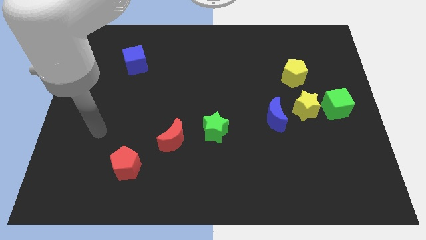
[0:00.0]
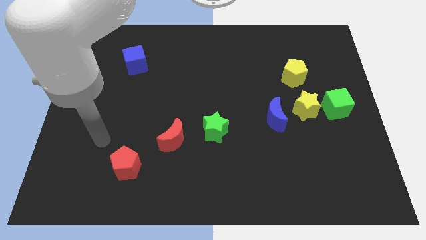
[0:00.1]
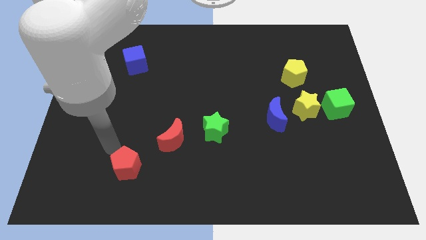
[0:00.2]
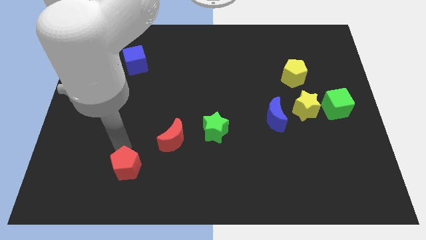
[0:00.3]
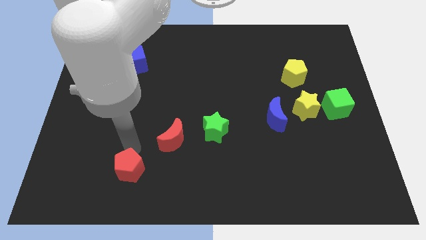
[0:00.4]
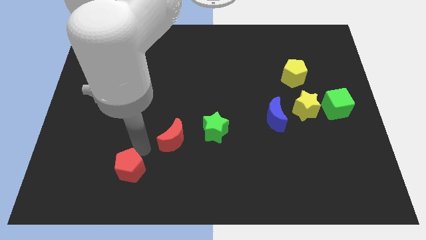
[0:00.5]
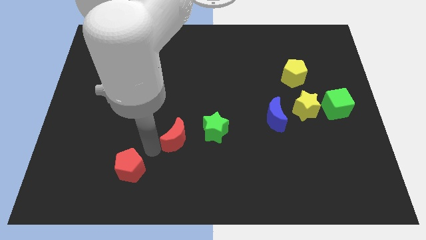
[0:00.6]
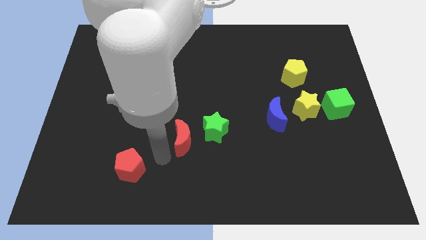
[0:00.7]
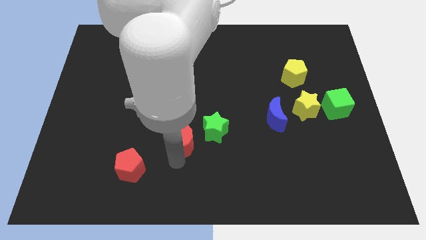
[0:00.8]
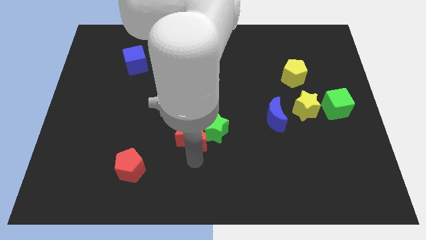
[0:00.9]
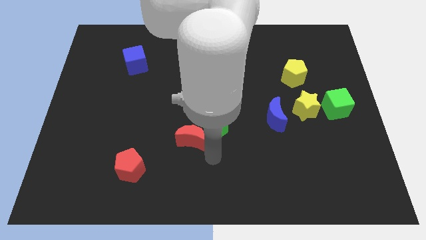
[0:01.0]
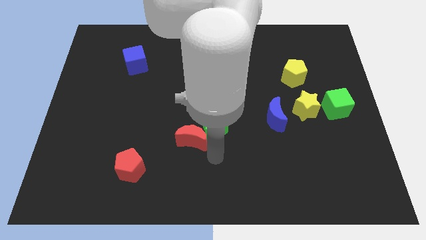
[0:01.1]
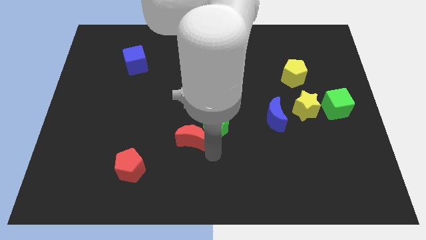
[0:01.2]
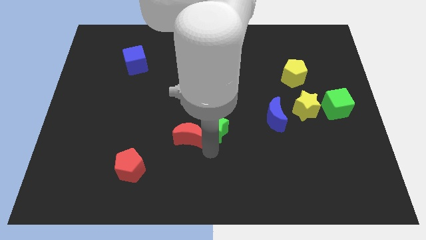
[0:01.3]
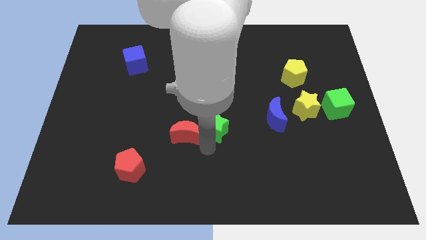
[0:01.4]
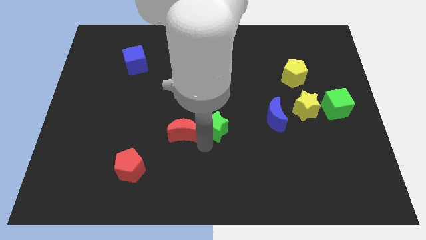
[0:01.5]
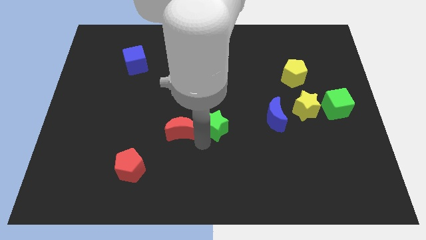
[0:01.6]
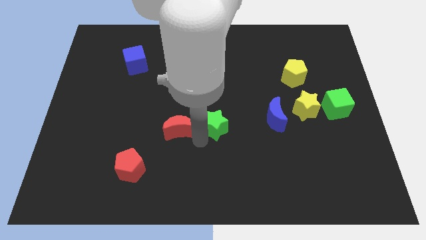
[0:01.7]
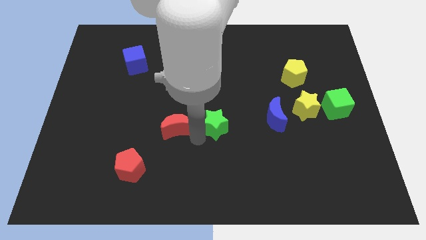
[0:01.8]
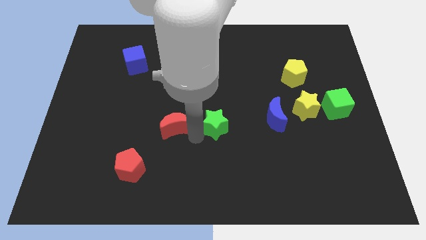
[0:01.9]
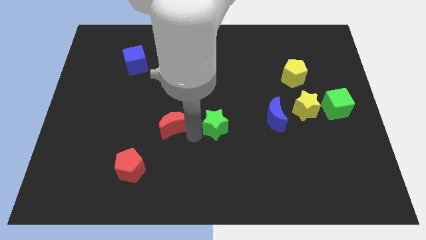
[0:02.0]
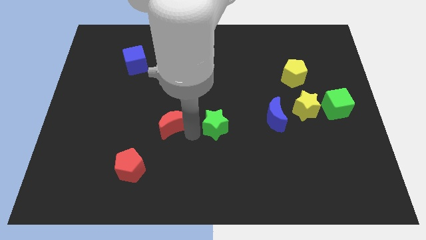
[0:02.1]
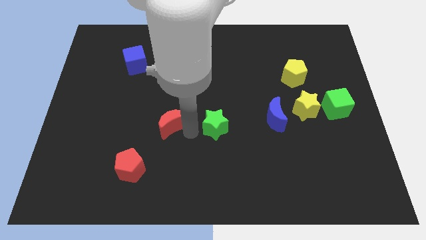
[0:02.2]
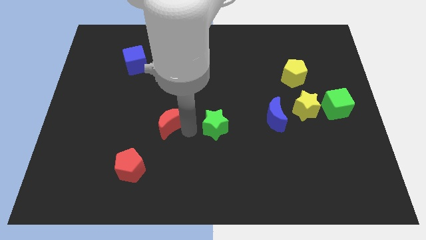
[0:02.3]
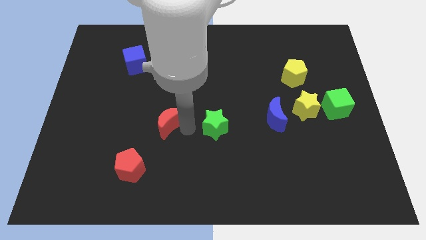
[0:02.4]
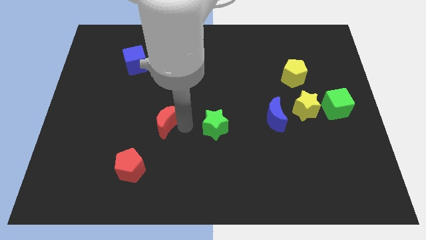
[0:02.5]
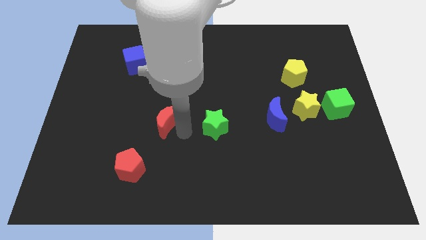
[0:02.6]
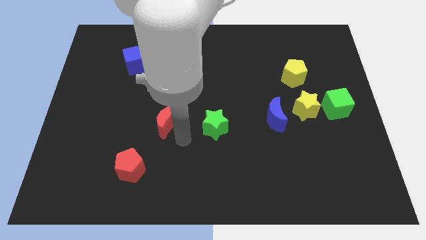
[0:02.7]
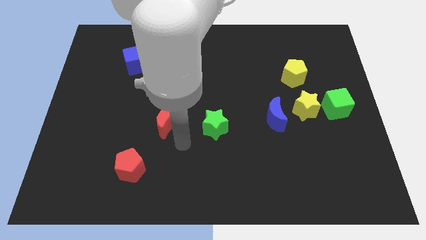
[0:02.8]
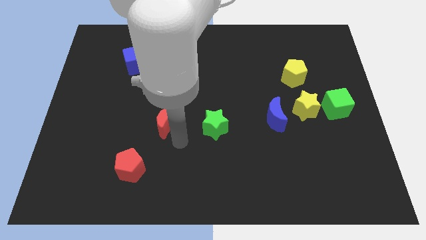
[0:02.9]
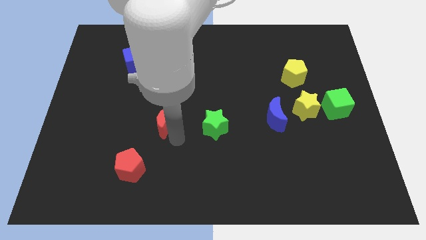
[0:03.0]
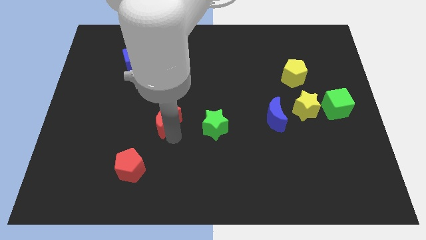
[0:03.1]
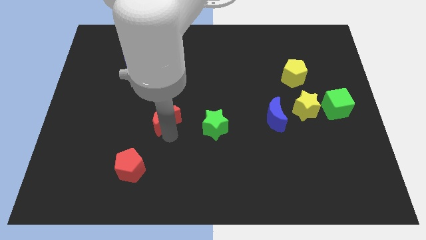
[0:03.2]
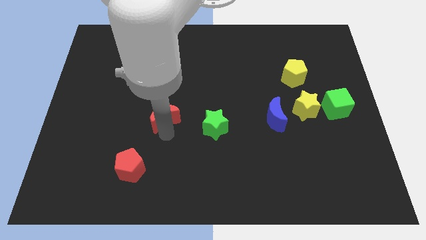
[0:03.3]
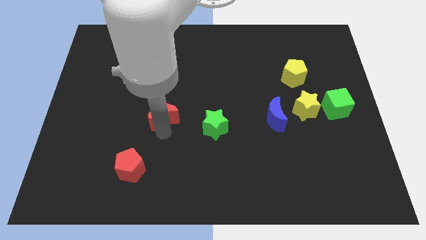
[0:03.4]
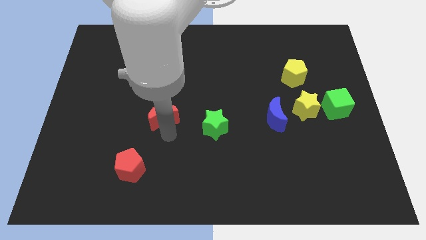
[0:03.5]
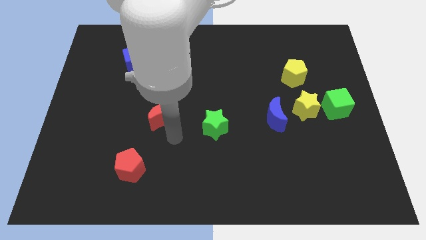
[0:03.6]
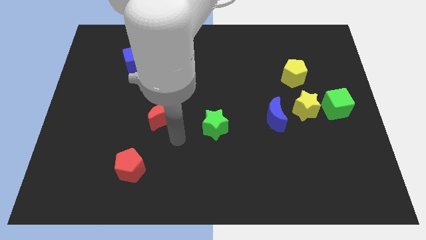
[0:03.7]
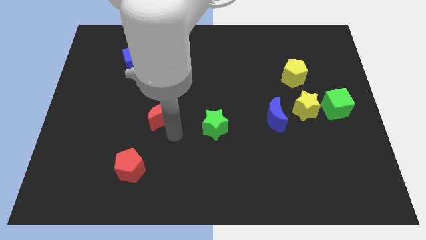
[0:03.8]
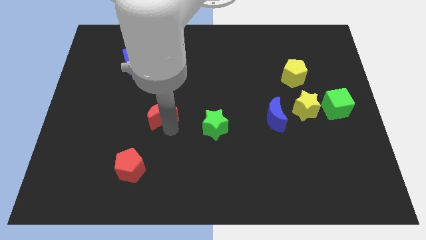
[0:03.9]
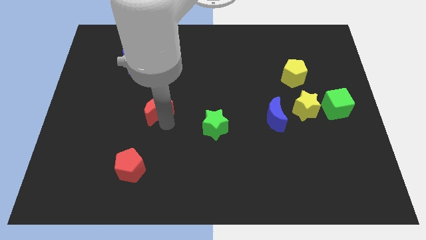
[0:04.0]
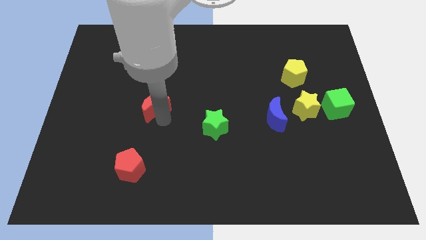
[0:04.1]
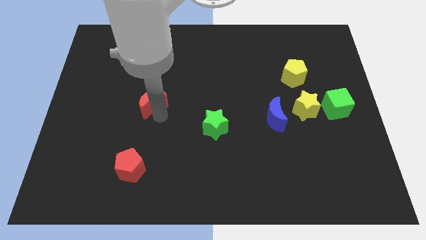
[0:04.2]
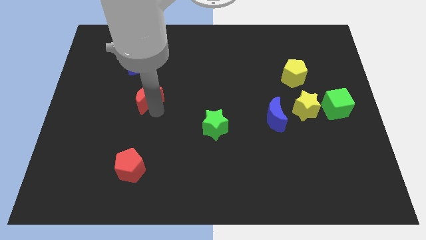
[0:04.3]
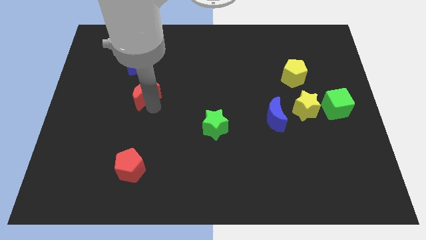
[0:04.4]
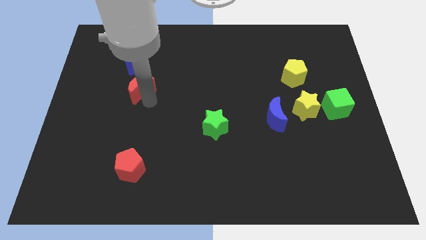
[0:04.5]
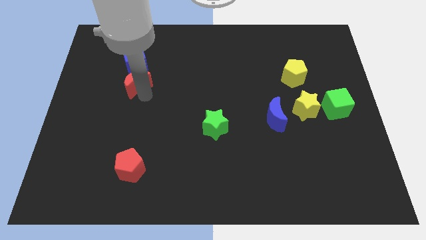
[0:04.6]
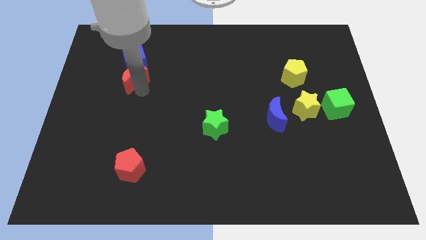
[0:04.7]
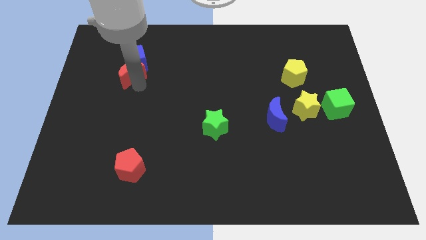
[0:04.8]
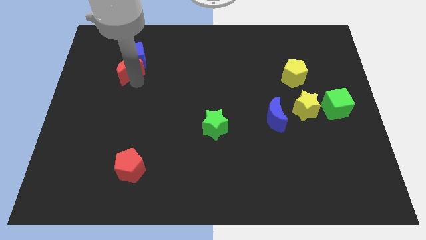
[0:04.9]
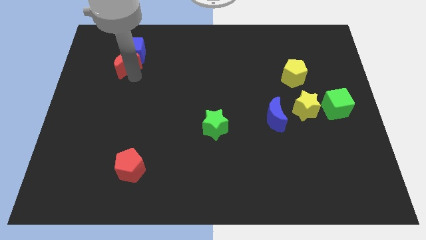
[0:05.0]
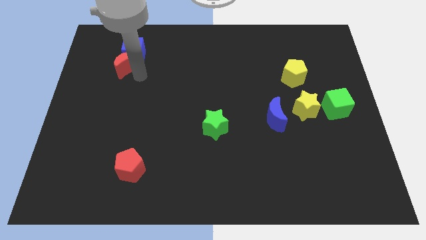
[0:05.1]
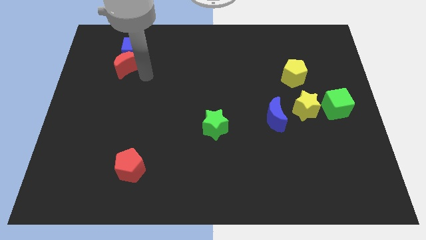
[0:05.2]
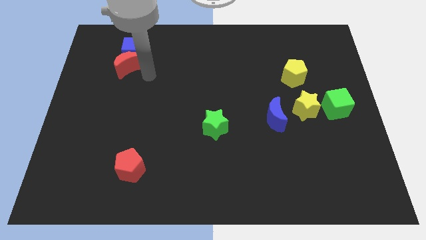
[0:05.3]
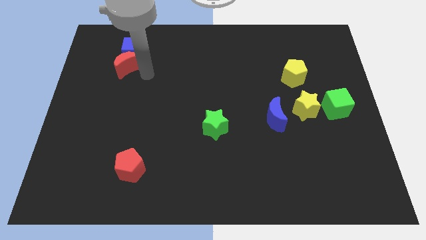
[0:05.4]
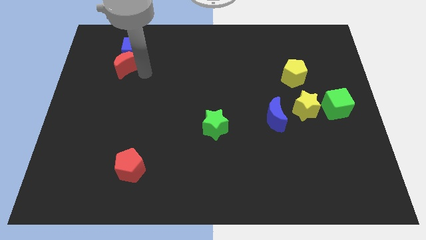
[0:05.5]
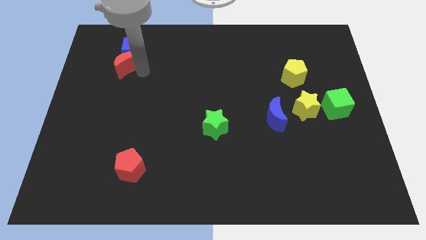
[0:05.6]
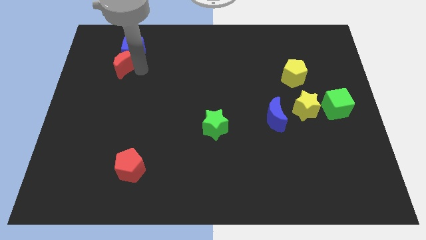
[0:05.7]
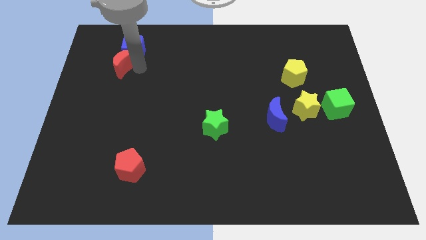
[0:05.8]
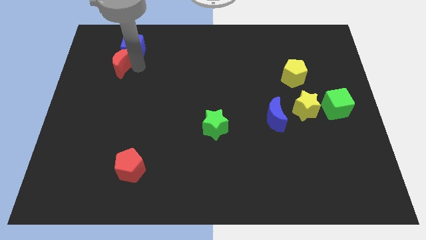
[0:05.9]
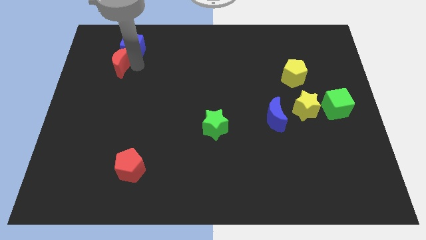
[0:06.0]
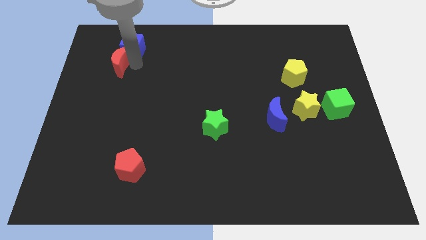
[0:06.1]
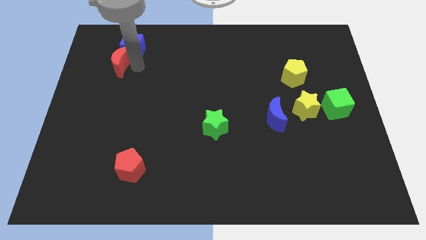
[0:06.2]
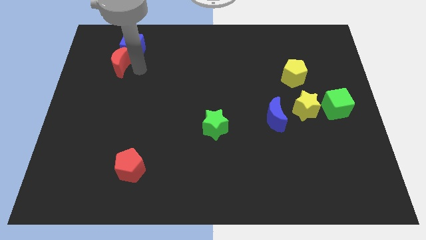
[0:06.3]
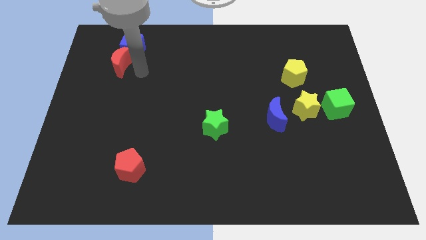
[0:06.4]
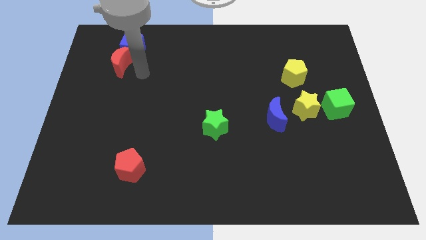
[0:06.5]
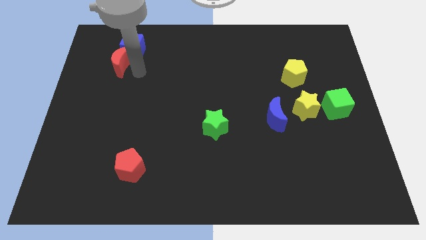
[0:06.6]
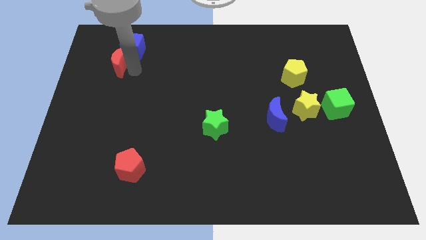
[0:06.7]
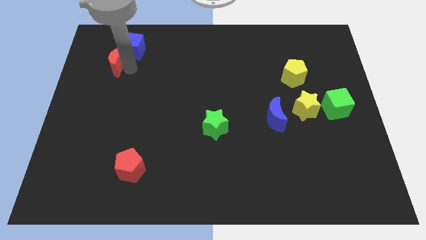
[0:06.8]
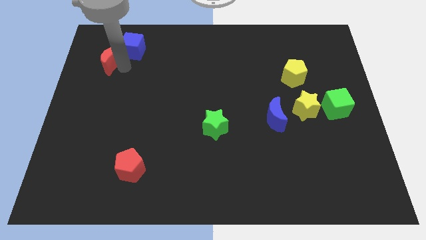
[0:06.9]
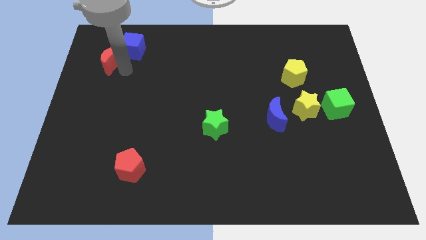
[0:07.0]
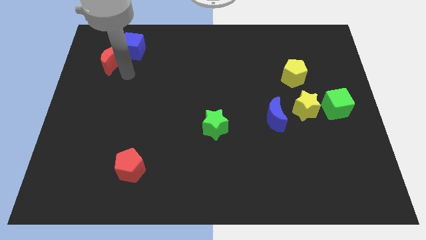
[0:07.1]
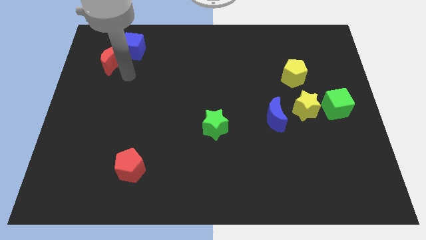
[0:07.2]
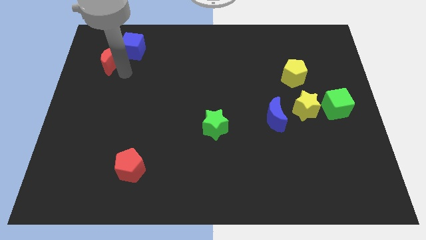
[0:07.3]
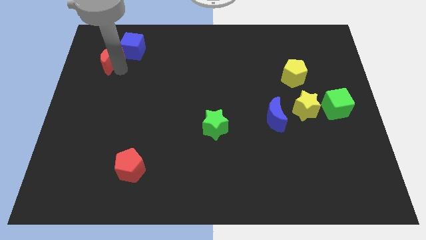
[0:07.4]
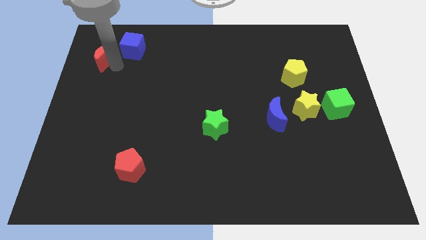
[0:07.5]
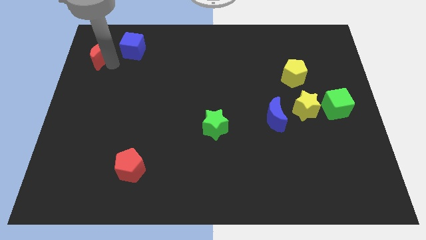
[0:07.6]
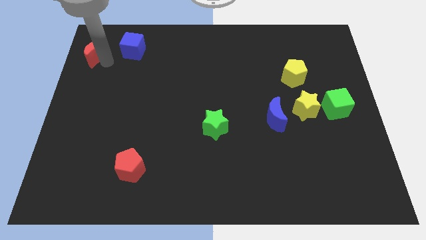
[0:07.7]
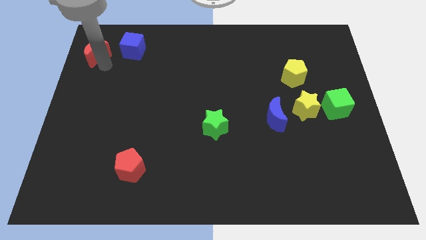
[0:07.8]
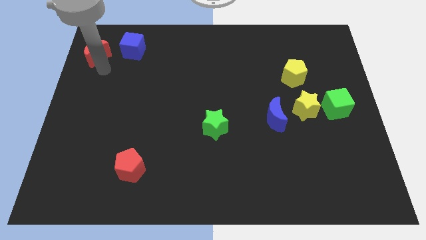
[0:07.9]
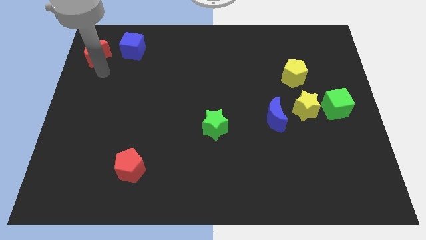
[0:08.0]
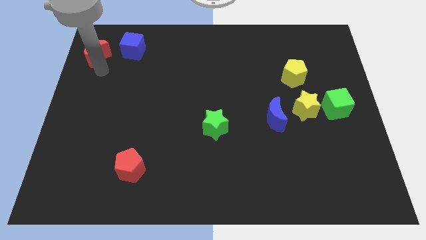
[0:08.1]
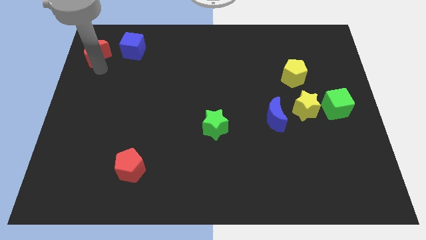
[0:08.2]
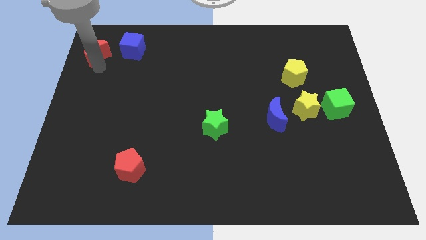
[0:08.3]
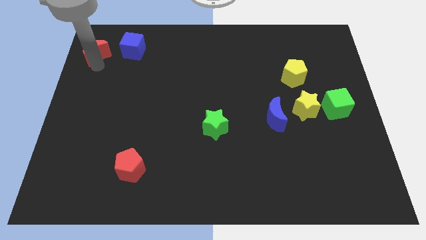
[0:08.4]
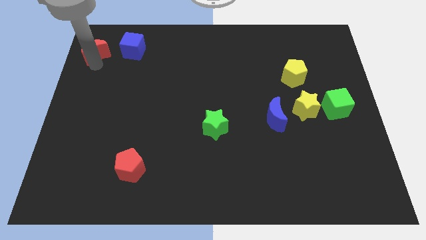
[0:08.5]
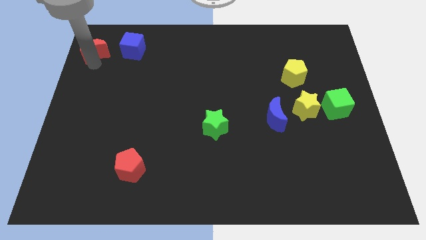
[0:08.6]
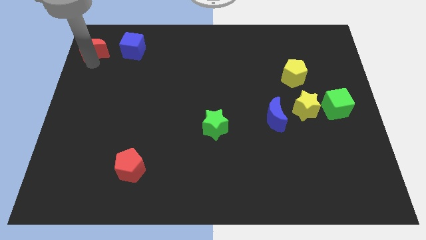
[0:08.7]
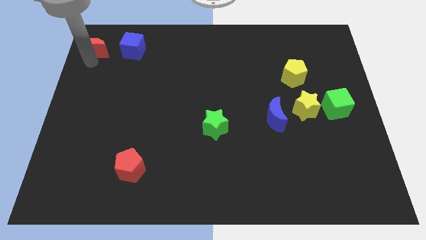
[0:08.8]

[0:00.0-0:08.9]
put the red moon to the top left of the board
